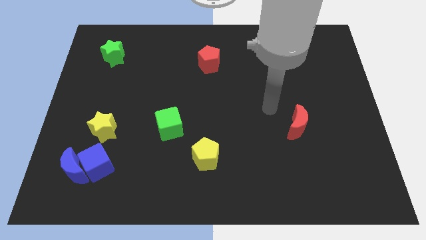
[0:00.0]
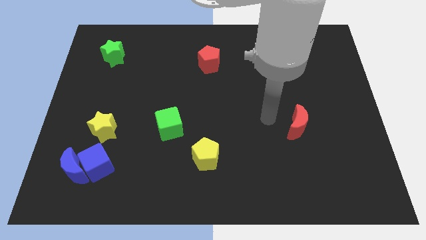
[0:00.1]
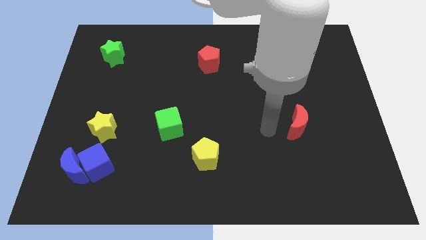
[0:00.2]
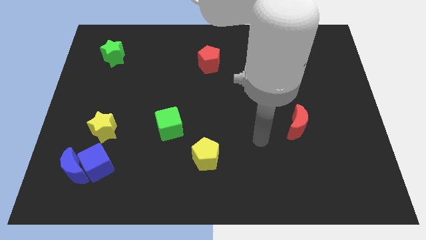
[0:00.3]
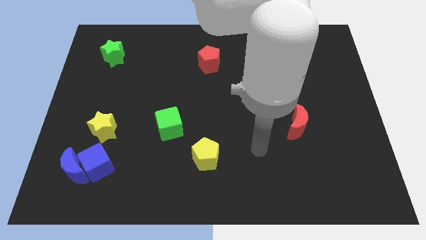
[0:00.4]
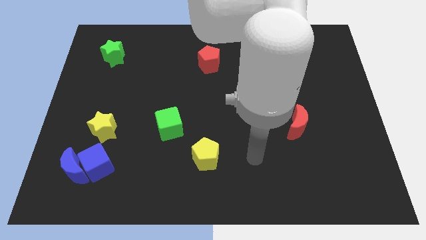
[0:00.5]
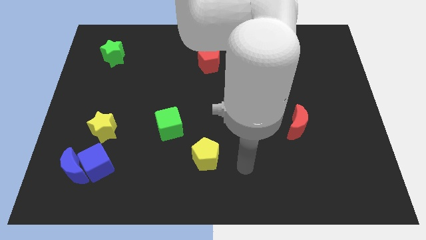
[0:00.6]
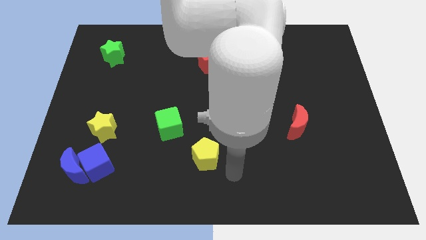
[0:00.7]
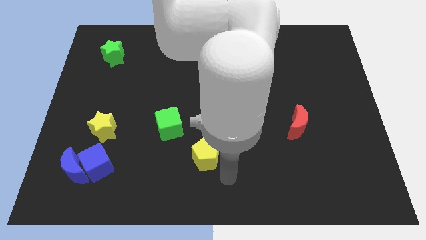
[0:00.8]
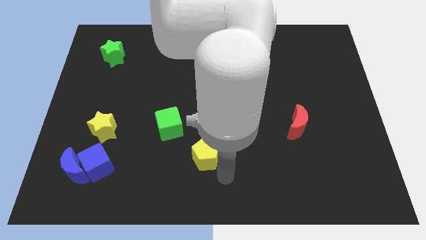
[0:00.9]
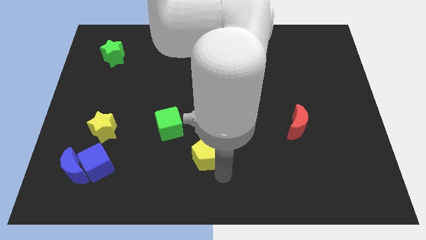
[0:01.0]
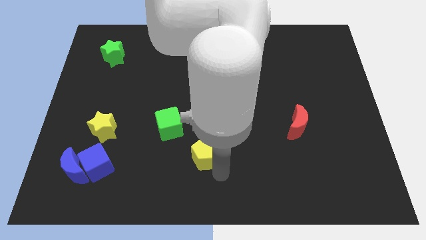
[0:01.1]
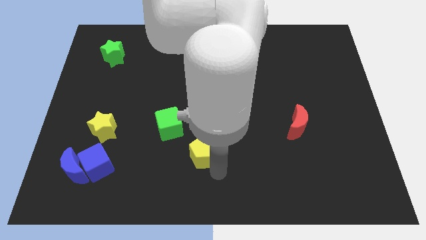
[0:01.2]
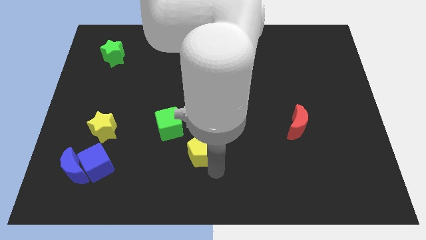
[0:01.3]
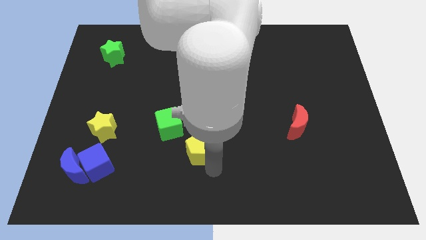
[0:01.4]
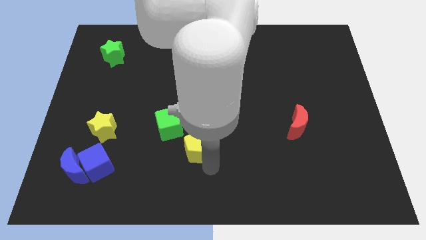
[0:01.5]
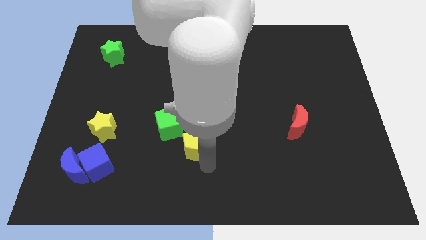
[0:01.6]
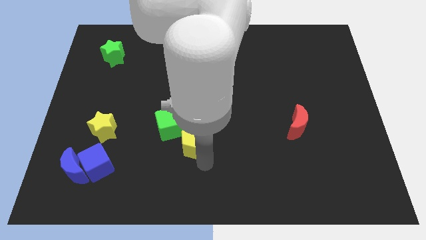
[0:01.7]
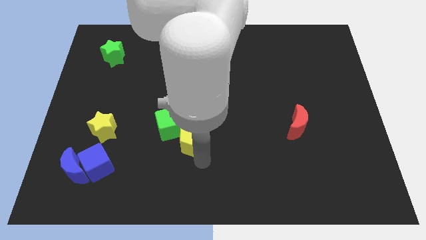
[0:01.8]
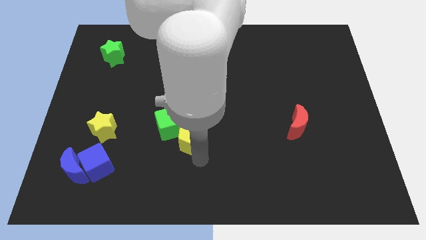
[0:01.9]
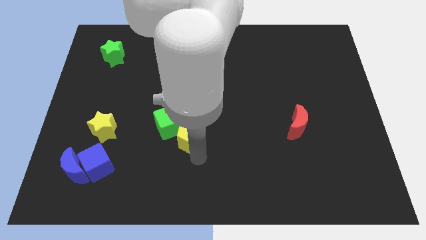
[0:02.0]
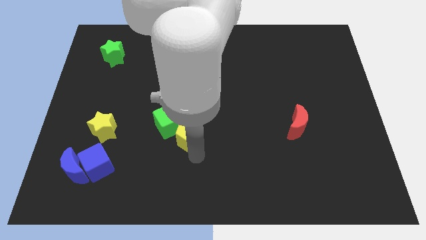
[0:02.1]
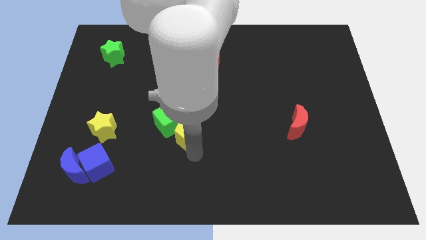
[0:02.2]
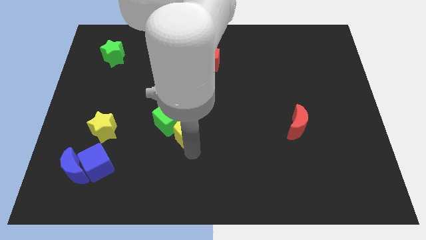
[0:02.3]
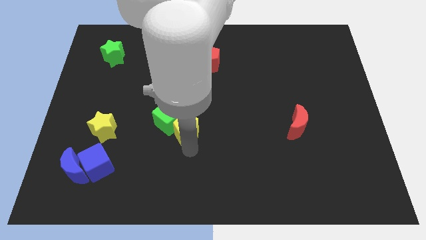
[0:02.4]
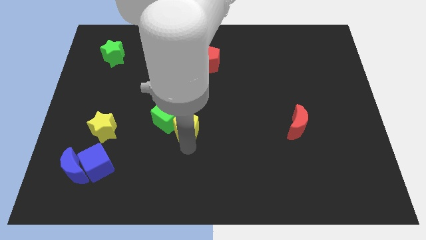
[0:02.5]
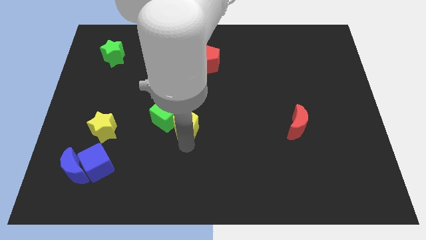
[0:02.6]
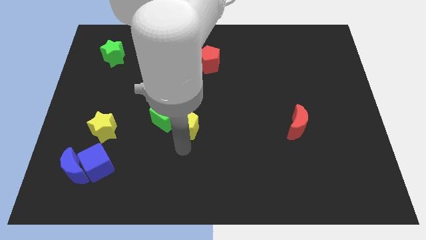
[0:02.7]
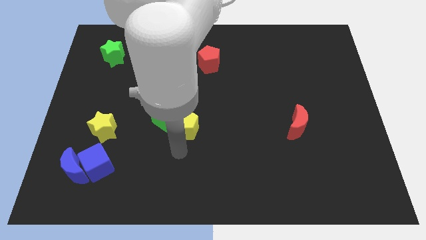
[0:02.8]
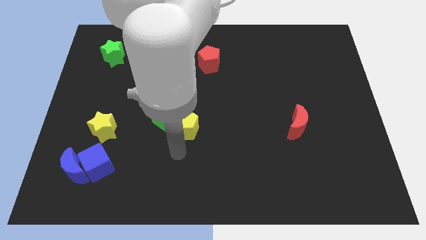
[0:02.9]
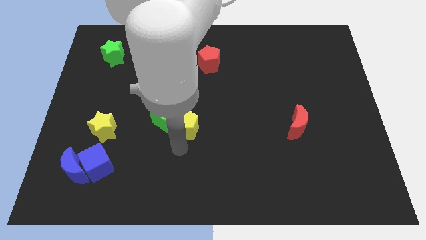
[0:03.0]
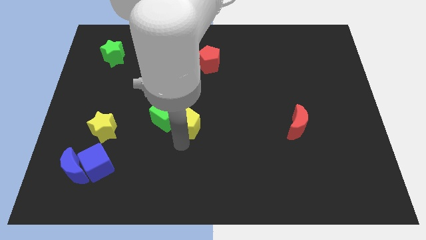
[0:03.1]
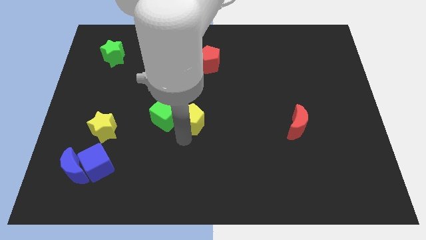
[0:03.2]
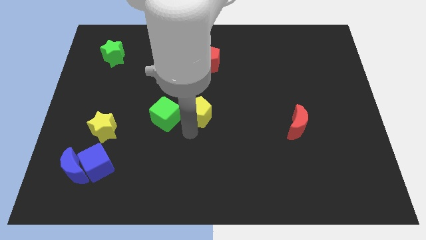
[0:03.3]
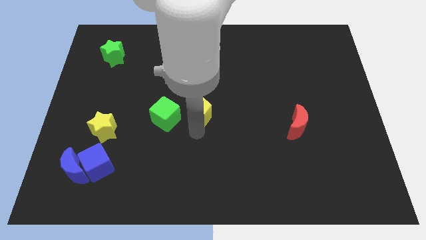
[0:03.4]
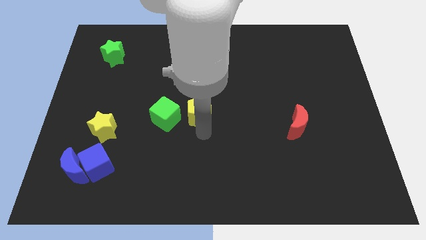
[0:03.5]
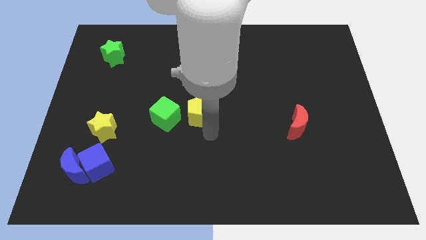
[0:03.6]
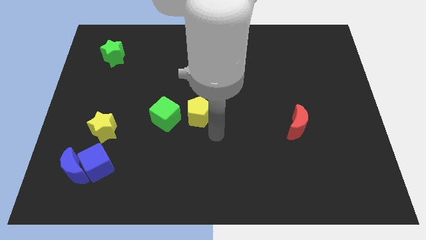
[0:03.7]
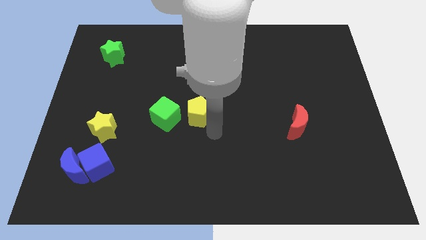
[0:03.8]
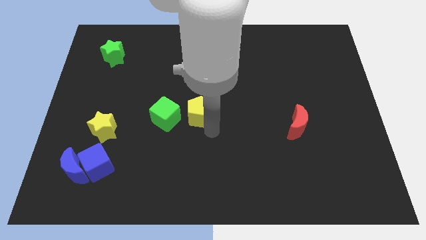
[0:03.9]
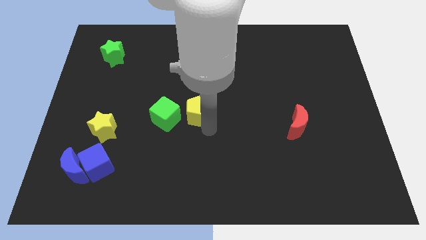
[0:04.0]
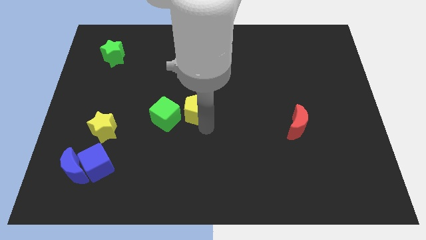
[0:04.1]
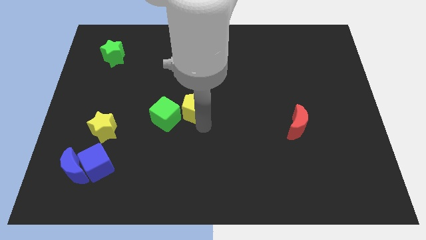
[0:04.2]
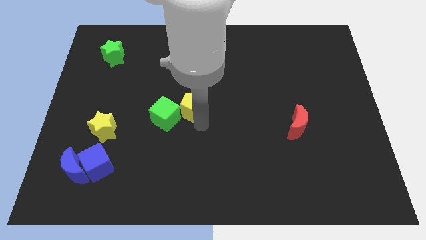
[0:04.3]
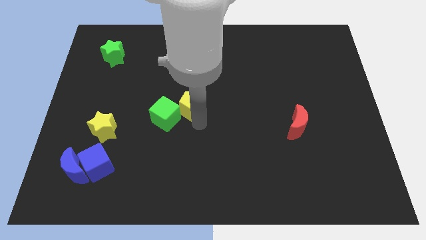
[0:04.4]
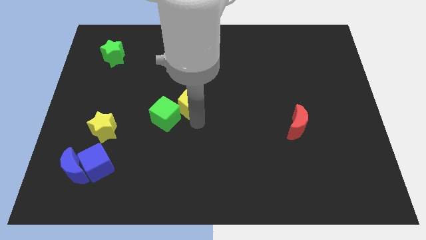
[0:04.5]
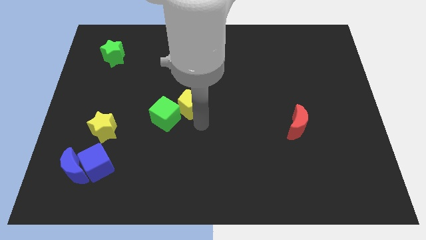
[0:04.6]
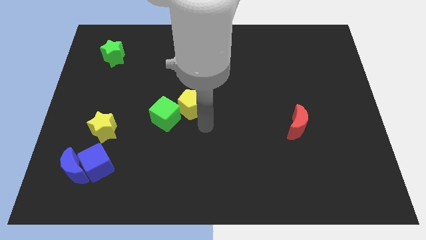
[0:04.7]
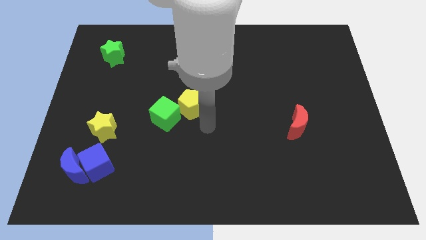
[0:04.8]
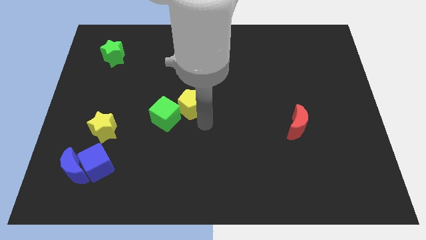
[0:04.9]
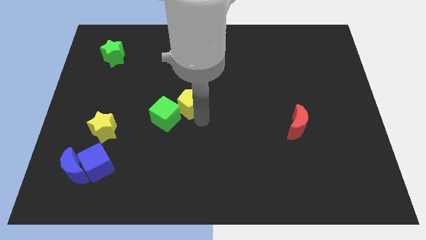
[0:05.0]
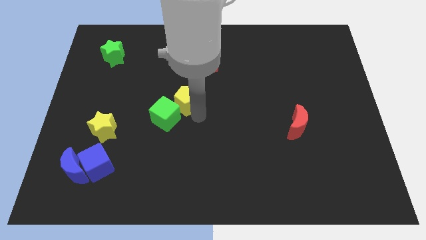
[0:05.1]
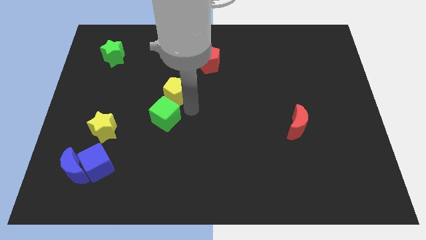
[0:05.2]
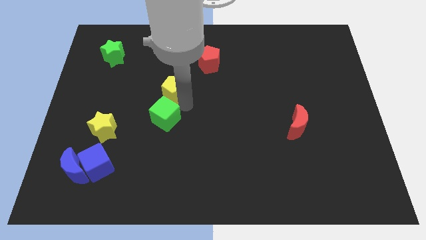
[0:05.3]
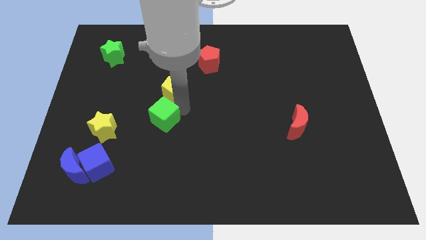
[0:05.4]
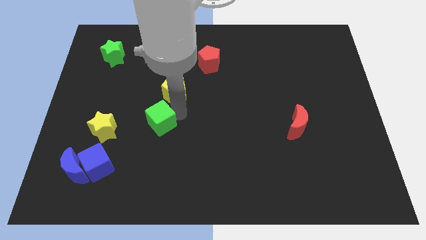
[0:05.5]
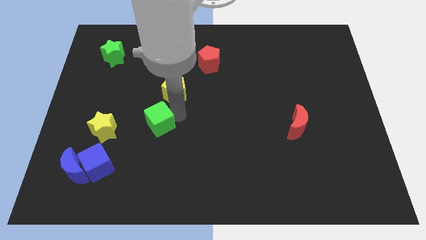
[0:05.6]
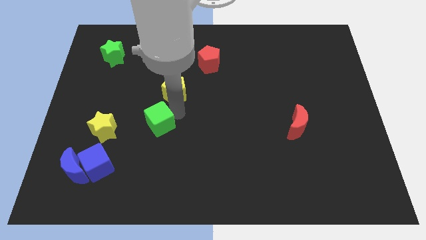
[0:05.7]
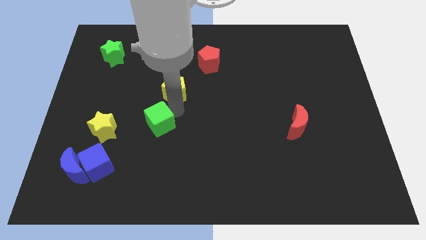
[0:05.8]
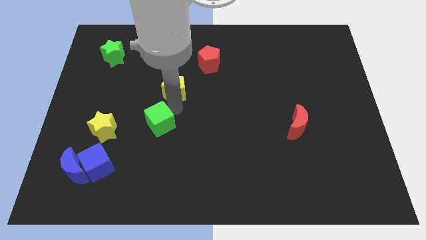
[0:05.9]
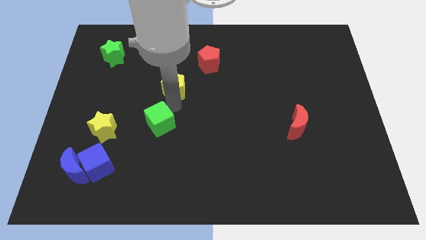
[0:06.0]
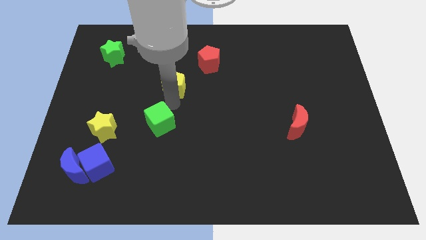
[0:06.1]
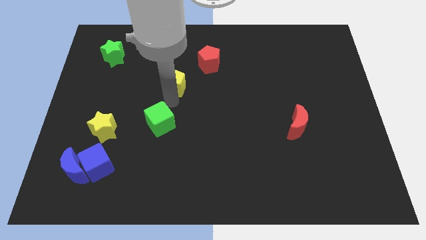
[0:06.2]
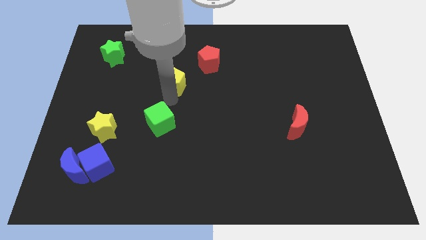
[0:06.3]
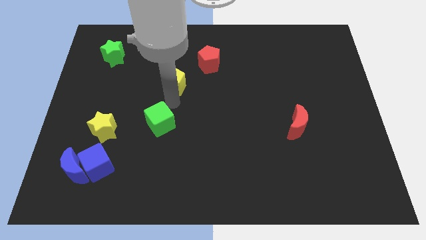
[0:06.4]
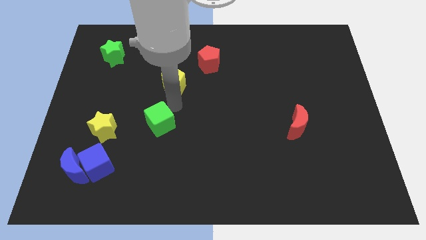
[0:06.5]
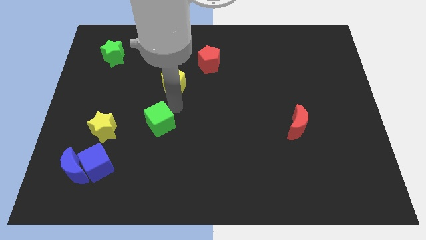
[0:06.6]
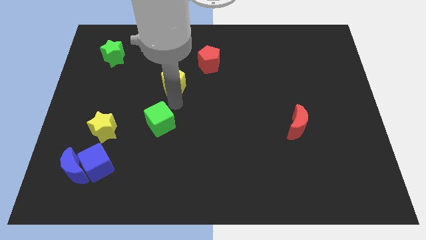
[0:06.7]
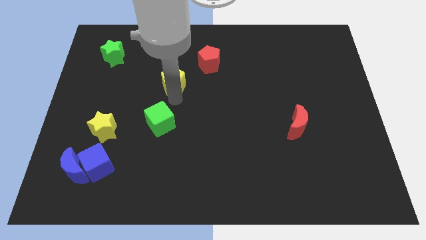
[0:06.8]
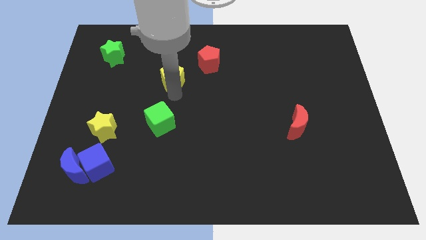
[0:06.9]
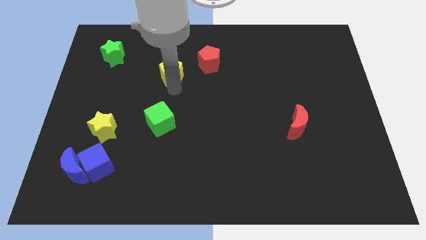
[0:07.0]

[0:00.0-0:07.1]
put the yellow pentagon left of the red pentagon

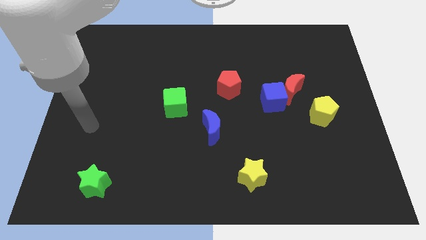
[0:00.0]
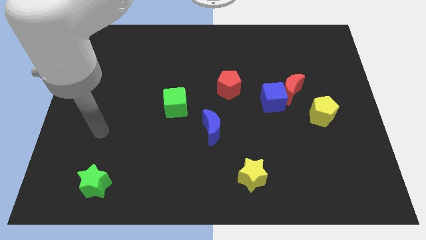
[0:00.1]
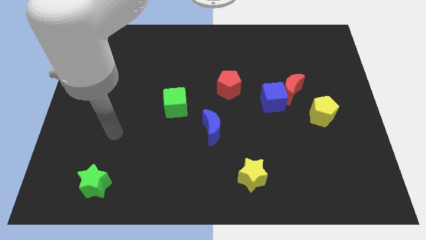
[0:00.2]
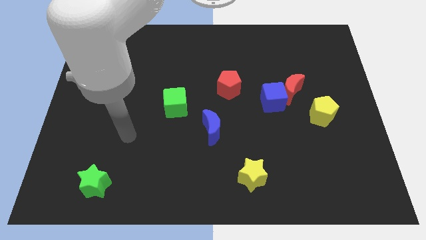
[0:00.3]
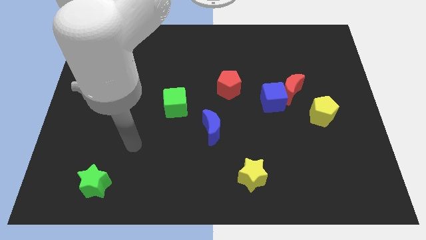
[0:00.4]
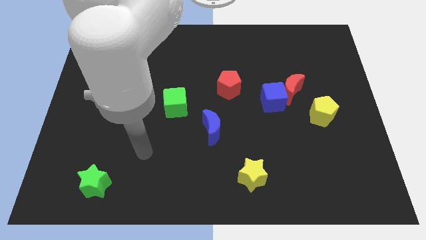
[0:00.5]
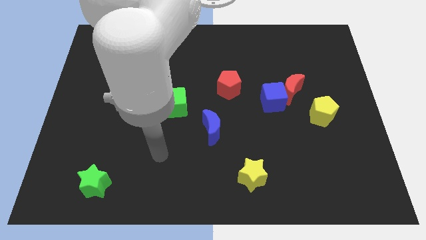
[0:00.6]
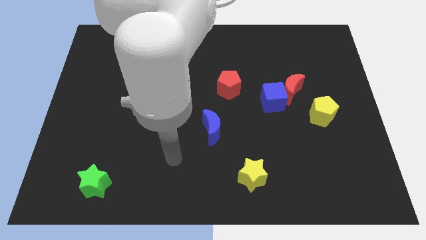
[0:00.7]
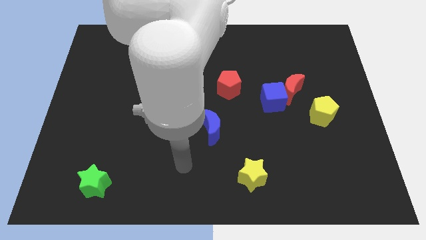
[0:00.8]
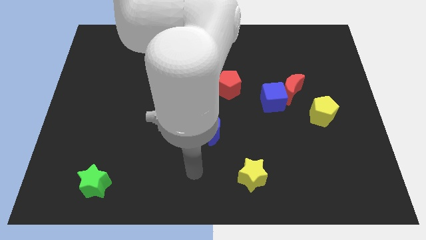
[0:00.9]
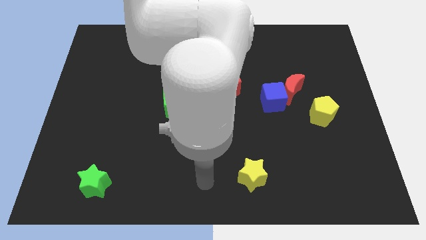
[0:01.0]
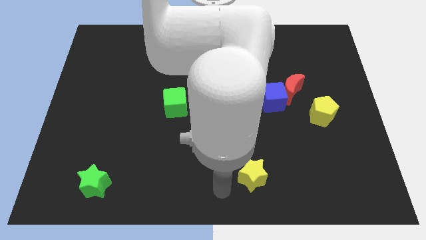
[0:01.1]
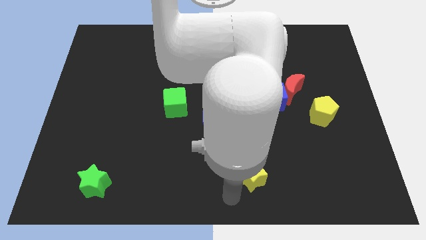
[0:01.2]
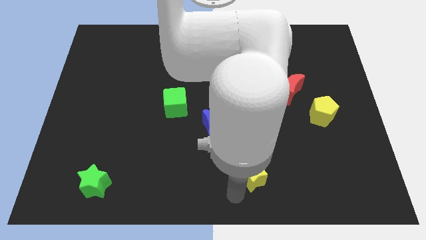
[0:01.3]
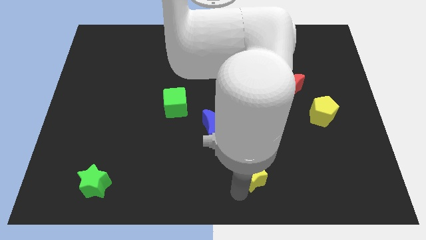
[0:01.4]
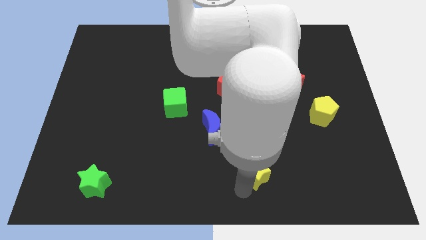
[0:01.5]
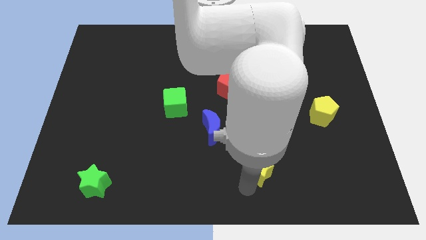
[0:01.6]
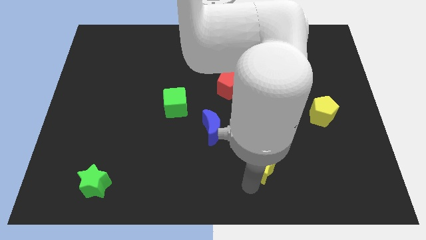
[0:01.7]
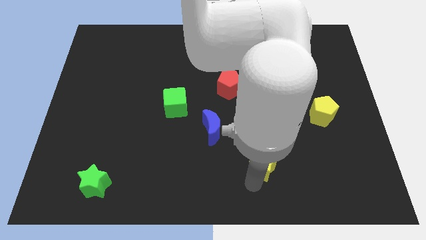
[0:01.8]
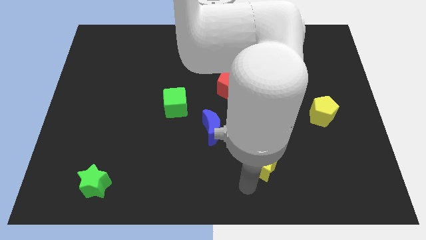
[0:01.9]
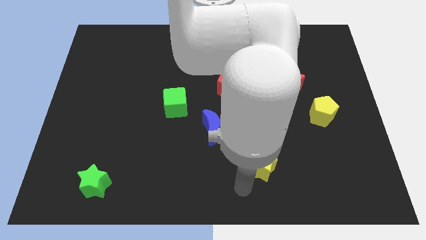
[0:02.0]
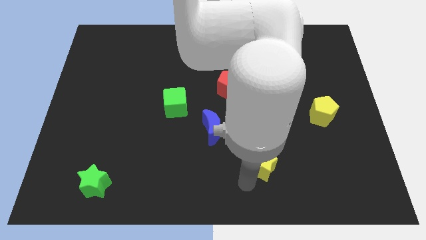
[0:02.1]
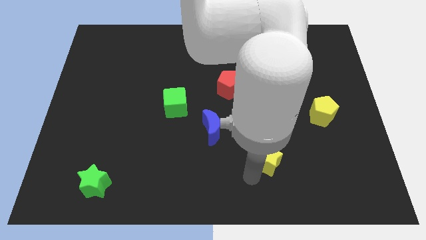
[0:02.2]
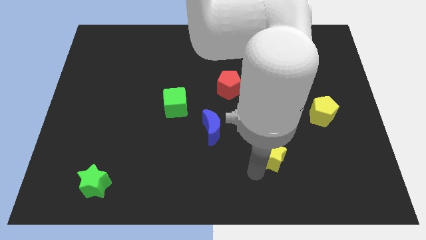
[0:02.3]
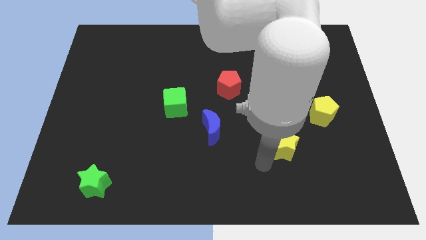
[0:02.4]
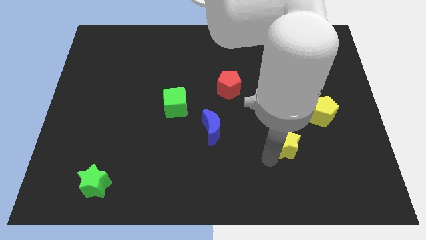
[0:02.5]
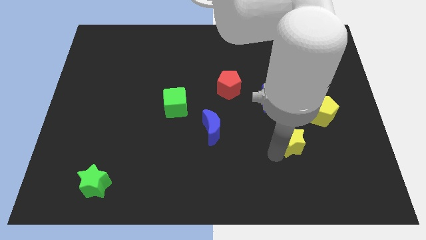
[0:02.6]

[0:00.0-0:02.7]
put the yellow star below the red moon
